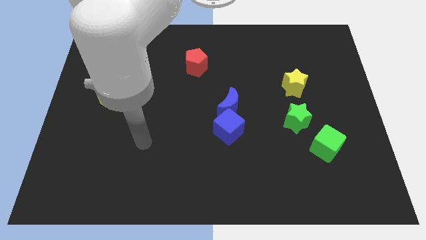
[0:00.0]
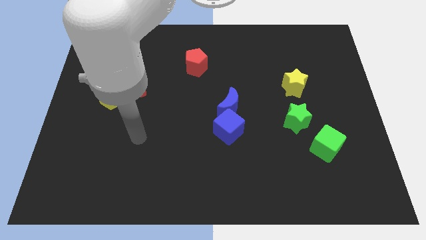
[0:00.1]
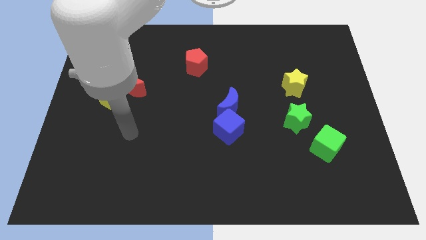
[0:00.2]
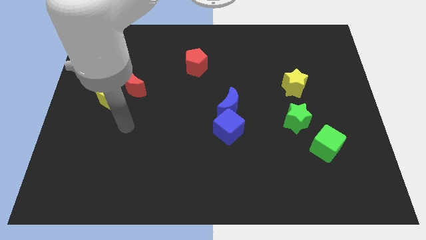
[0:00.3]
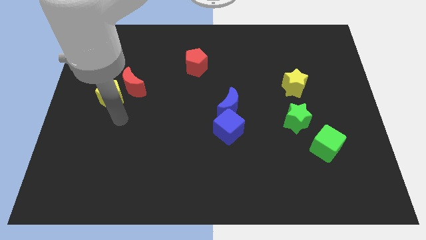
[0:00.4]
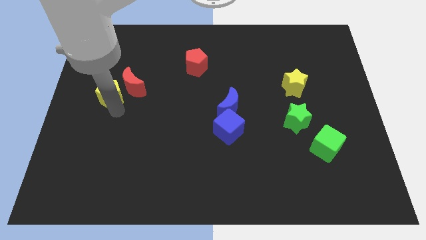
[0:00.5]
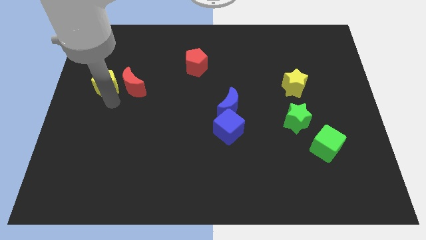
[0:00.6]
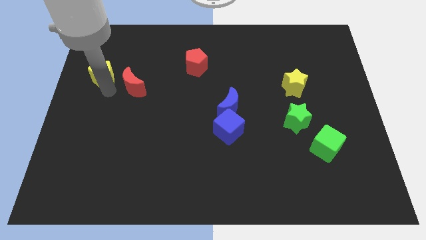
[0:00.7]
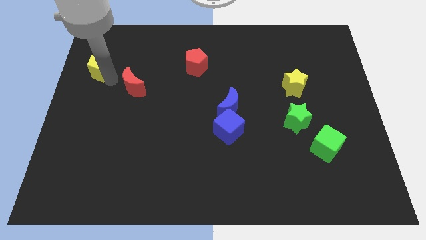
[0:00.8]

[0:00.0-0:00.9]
pull the red moon apart from the yellow pentagon

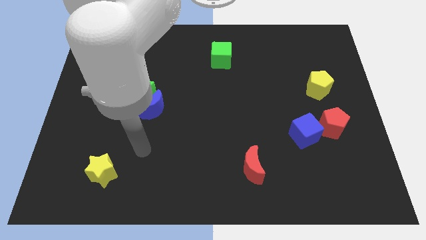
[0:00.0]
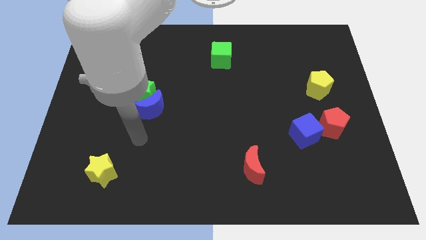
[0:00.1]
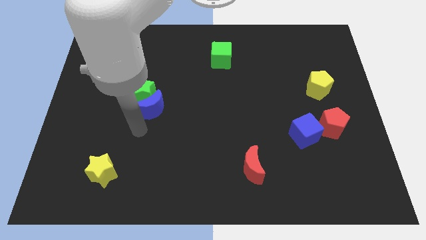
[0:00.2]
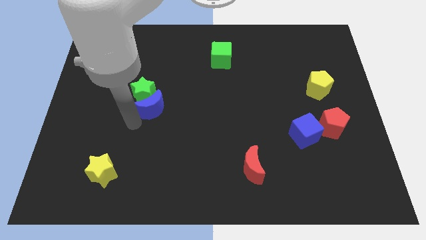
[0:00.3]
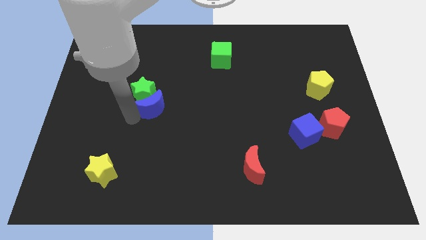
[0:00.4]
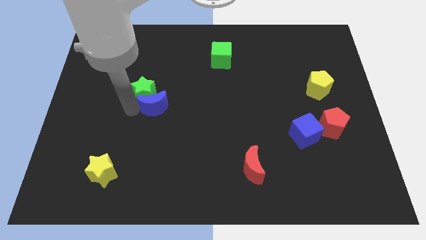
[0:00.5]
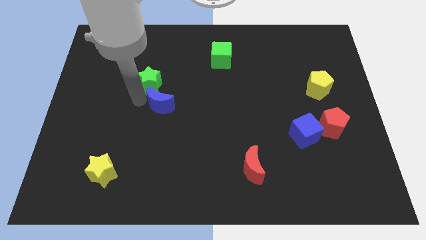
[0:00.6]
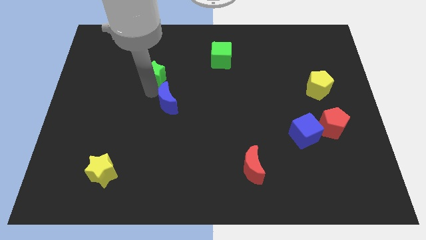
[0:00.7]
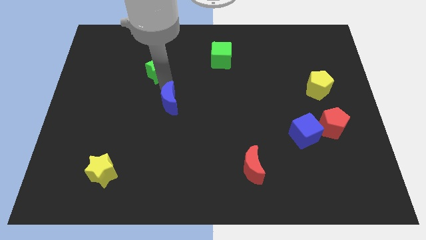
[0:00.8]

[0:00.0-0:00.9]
separate the blue moon from the green star

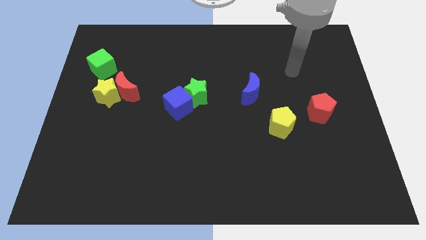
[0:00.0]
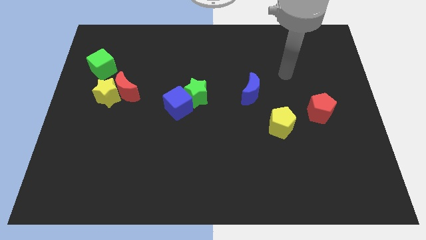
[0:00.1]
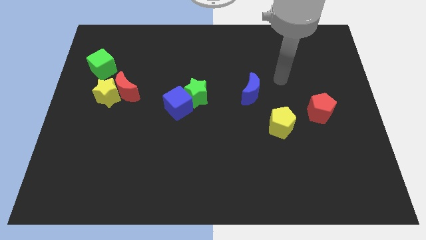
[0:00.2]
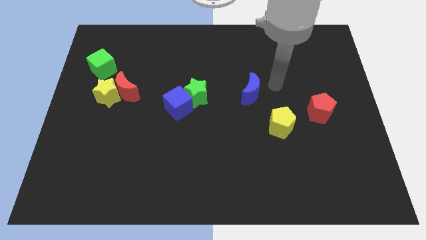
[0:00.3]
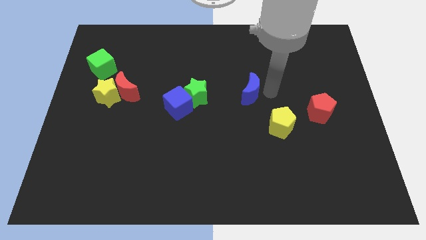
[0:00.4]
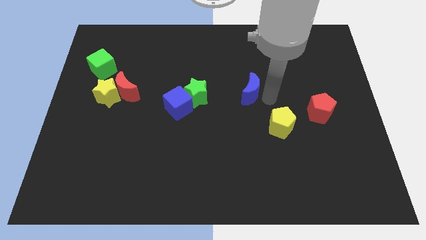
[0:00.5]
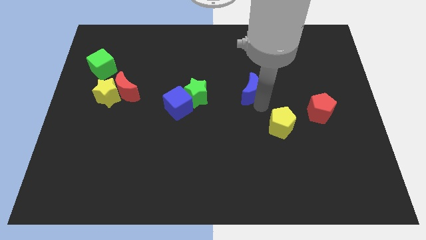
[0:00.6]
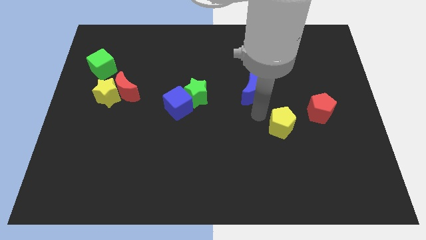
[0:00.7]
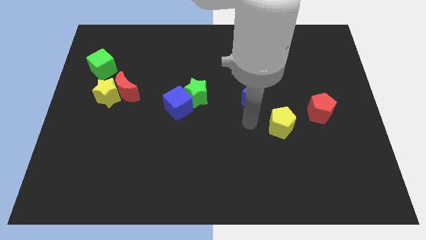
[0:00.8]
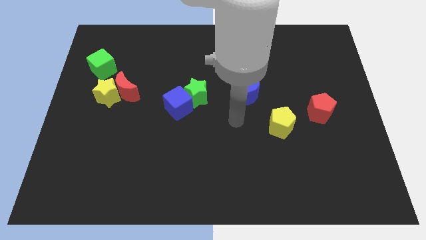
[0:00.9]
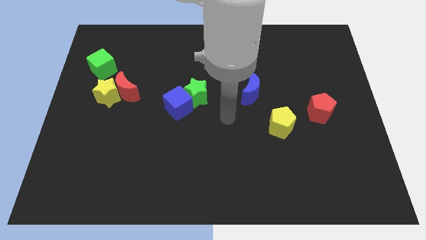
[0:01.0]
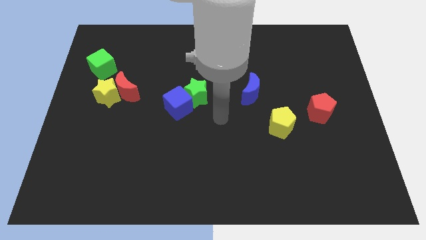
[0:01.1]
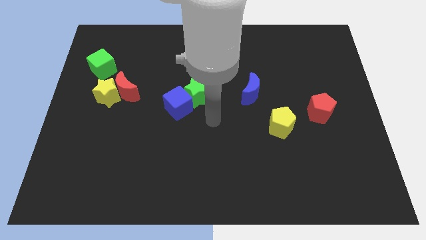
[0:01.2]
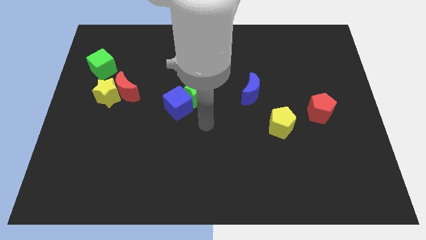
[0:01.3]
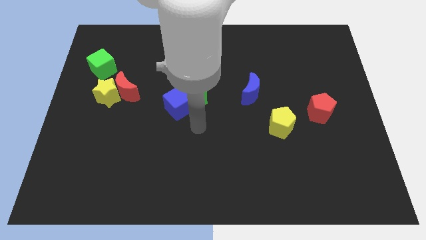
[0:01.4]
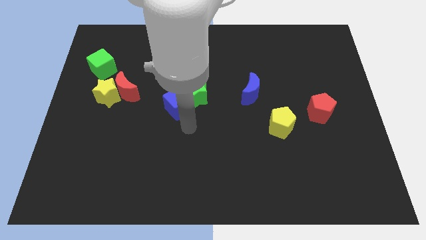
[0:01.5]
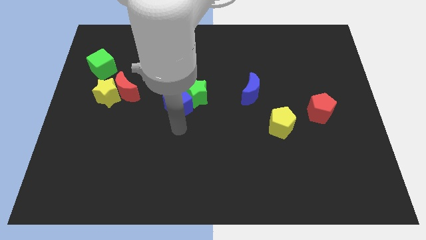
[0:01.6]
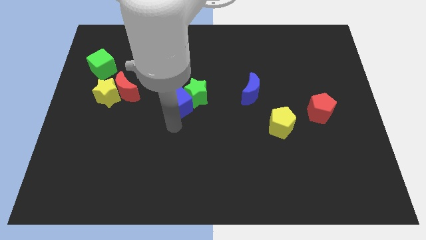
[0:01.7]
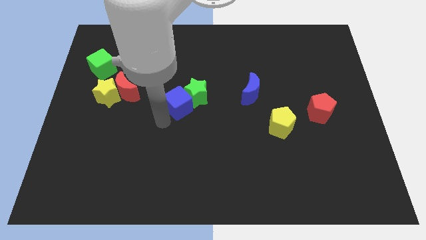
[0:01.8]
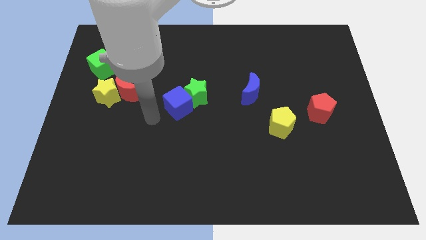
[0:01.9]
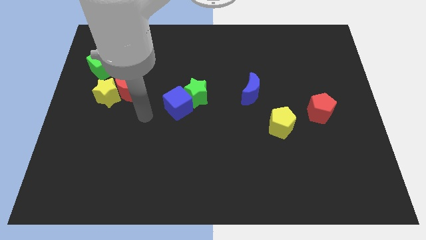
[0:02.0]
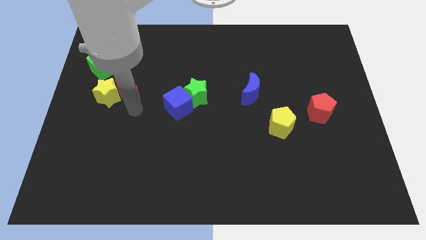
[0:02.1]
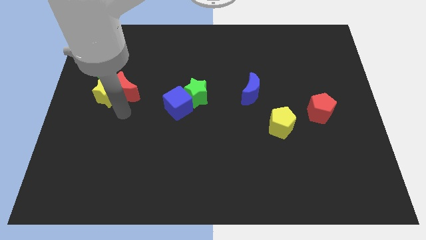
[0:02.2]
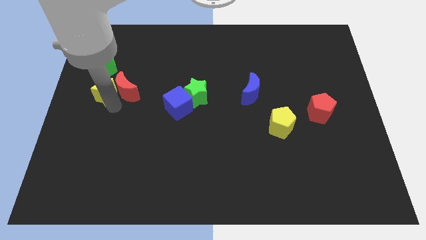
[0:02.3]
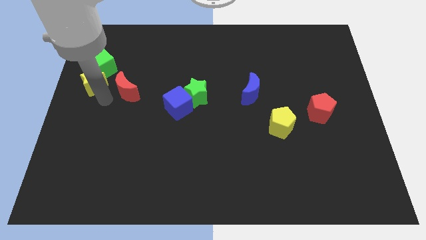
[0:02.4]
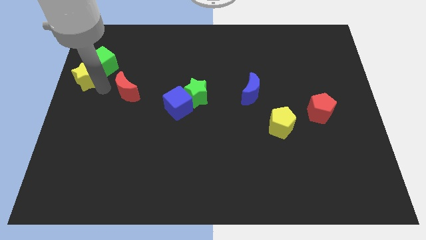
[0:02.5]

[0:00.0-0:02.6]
move the red moon away from the yellow star

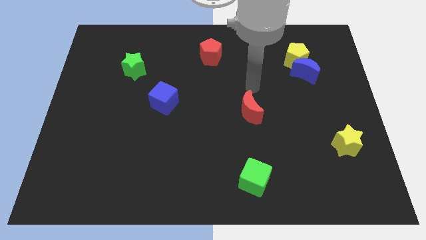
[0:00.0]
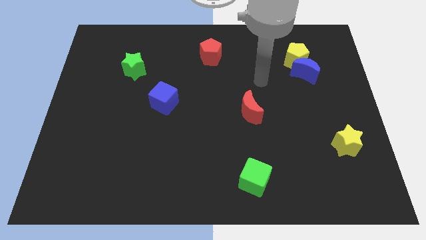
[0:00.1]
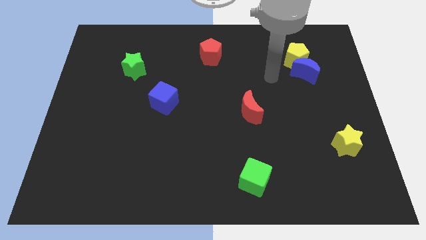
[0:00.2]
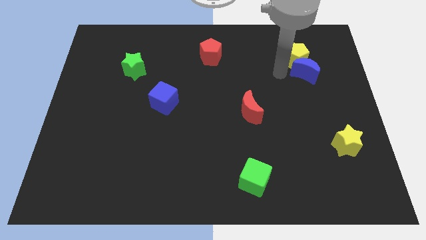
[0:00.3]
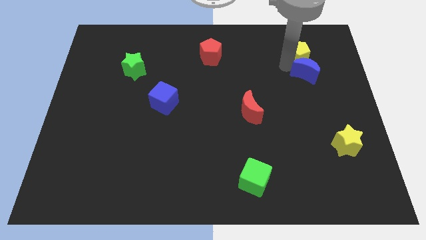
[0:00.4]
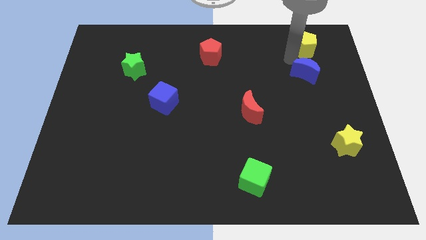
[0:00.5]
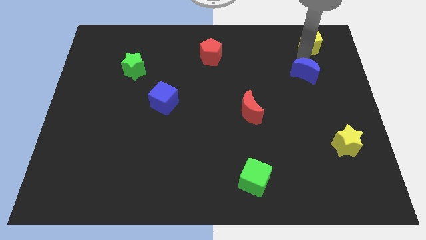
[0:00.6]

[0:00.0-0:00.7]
move the blue moon away from the yellow pentagon

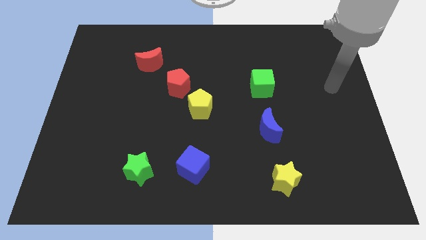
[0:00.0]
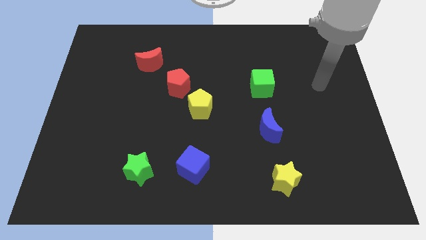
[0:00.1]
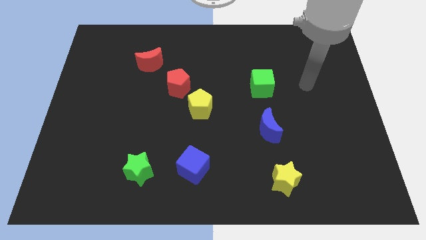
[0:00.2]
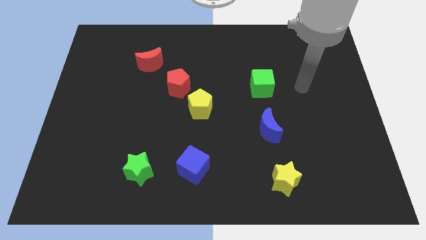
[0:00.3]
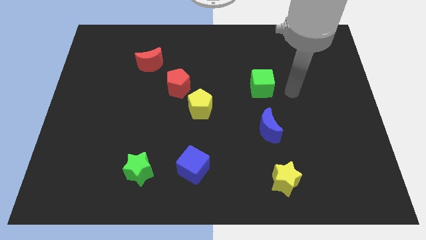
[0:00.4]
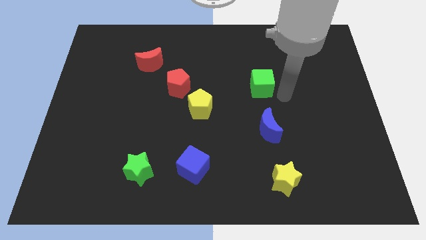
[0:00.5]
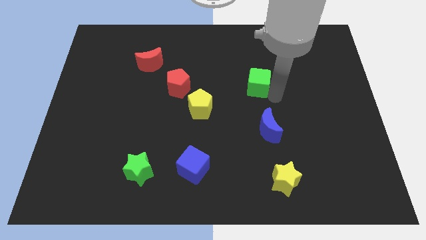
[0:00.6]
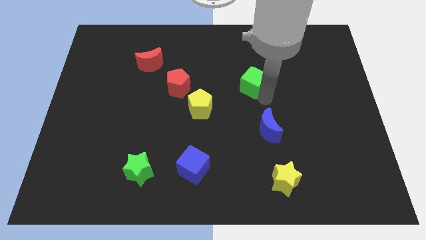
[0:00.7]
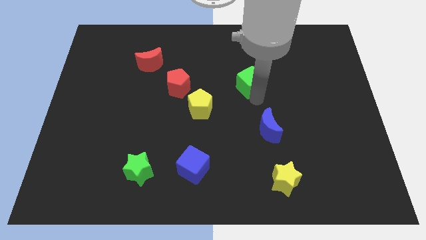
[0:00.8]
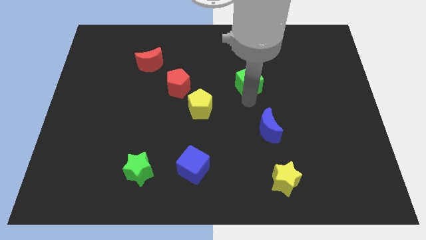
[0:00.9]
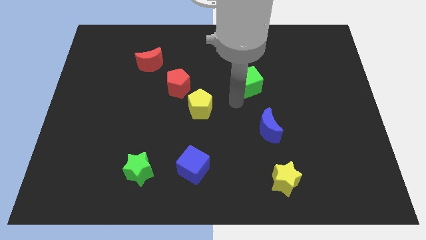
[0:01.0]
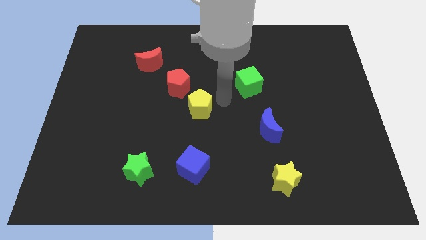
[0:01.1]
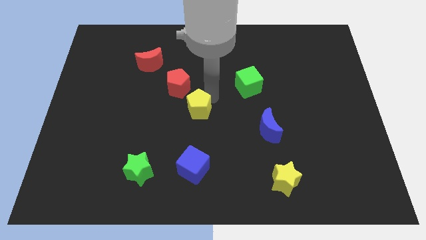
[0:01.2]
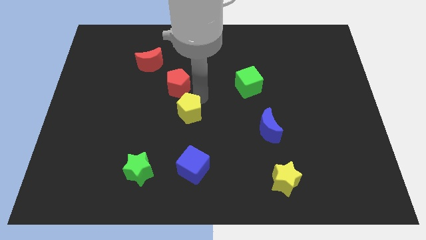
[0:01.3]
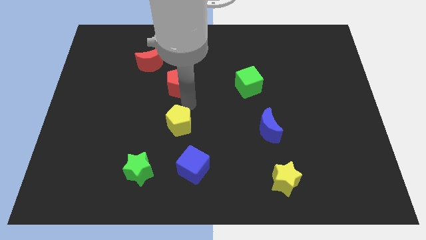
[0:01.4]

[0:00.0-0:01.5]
separate the red pentagon from the yellow pentagon

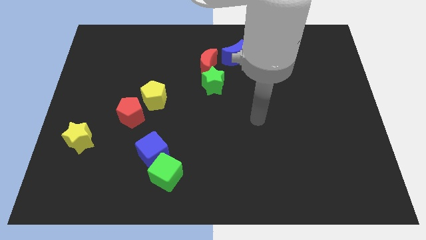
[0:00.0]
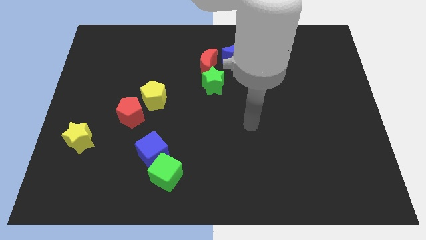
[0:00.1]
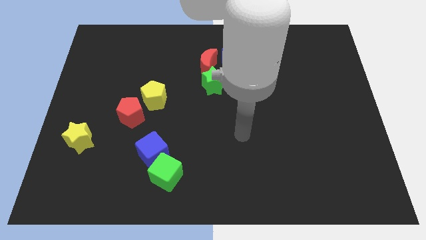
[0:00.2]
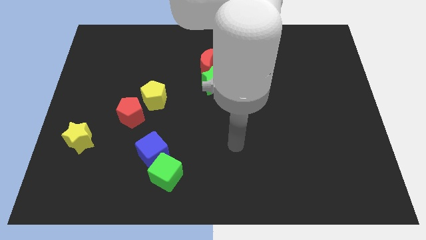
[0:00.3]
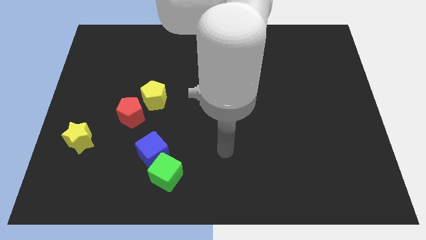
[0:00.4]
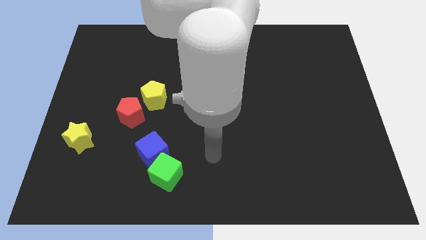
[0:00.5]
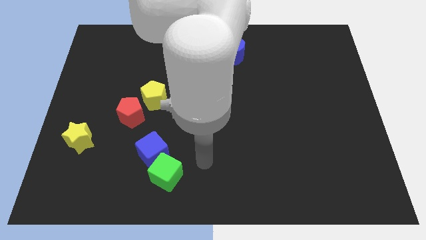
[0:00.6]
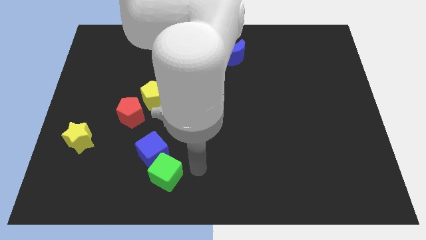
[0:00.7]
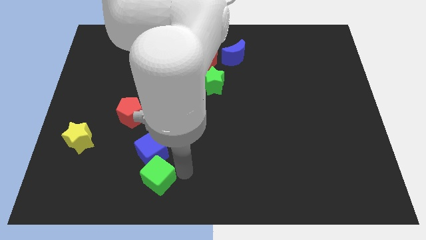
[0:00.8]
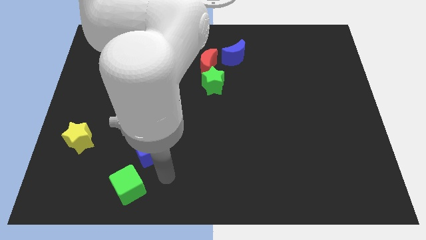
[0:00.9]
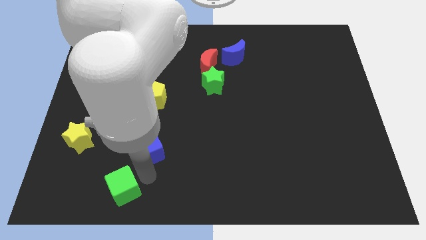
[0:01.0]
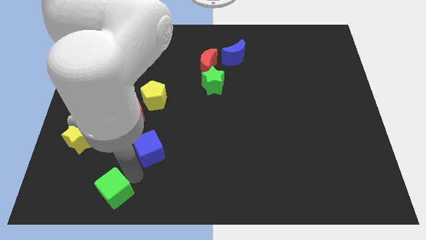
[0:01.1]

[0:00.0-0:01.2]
pull the blue cube apart from the green cube

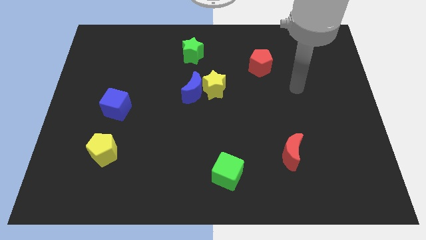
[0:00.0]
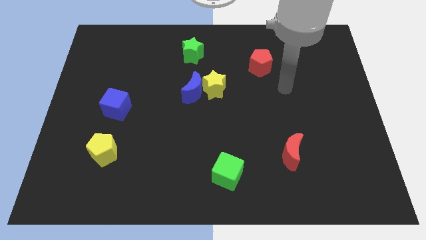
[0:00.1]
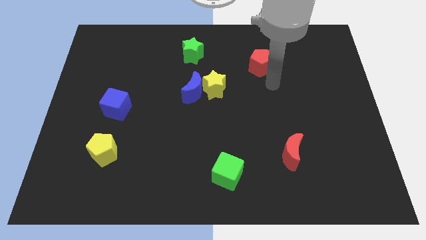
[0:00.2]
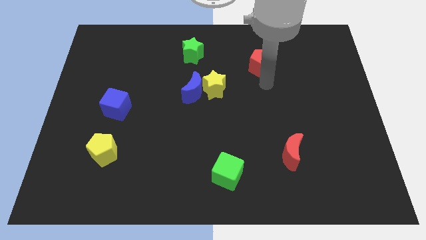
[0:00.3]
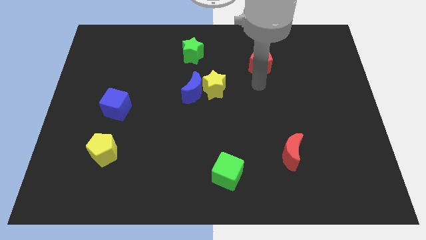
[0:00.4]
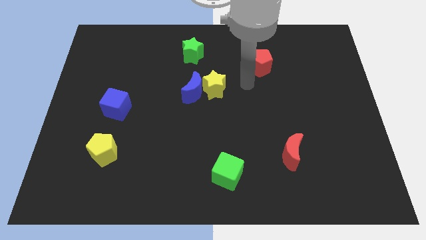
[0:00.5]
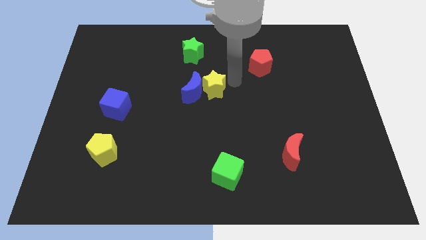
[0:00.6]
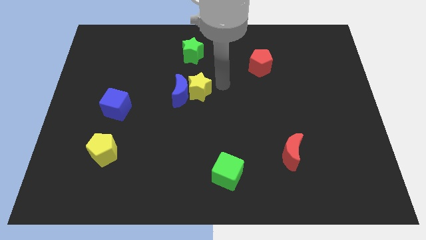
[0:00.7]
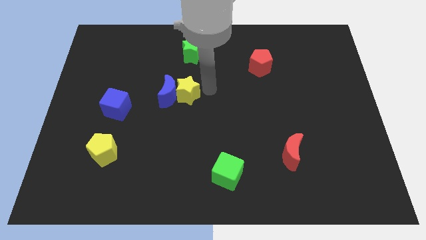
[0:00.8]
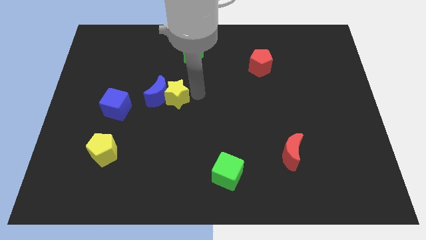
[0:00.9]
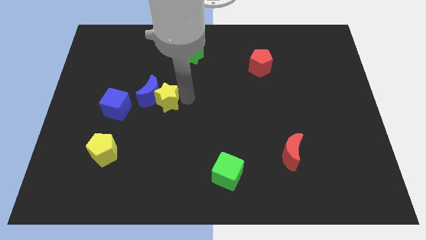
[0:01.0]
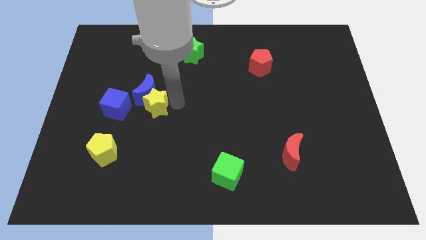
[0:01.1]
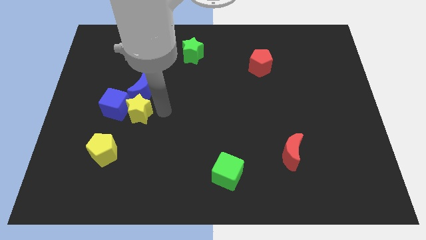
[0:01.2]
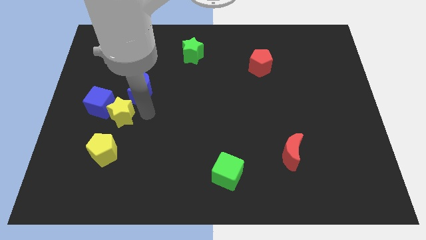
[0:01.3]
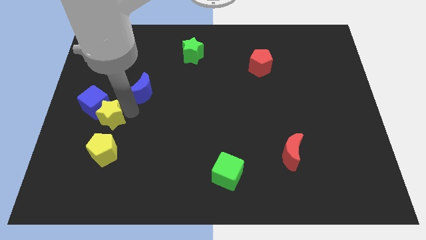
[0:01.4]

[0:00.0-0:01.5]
separate the blue moon from the yellow star
